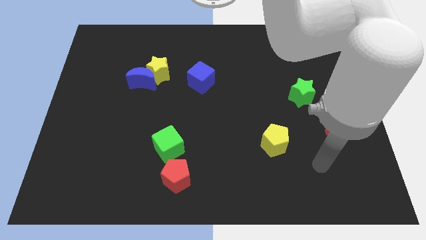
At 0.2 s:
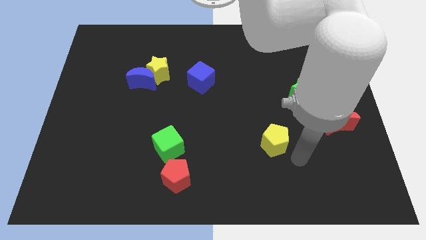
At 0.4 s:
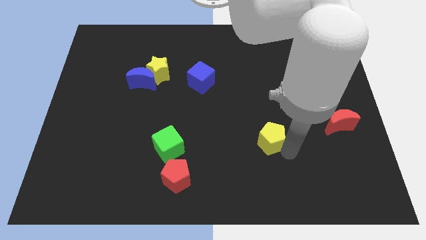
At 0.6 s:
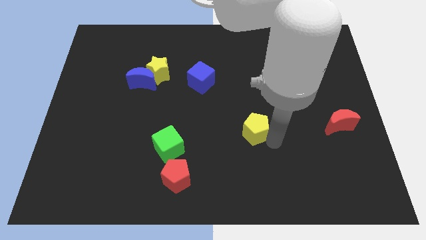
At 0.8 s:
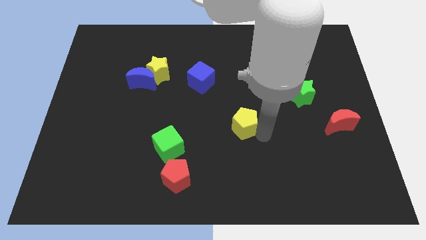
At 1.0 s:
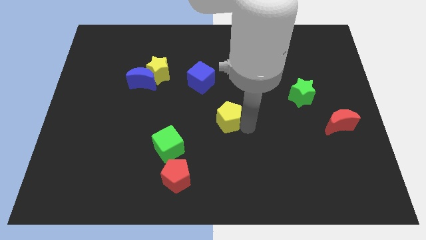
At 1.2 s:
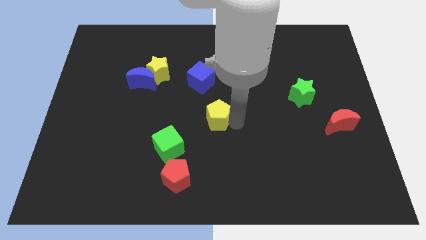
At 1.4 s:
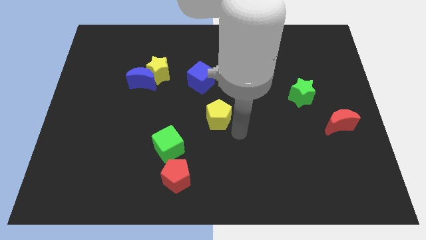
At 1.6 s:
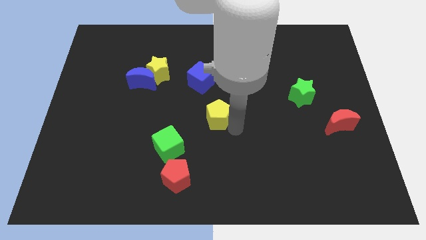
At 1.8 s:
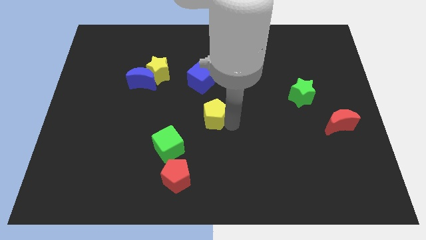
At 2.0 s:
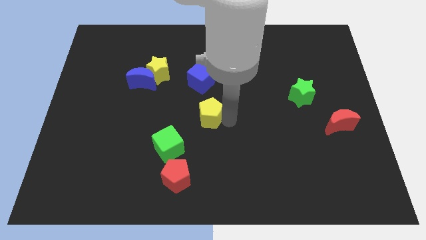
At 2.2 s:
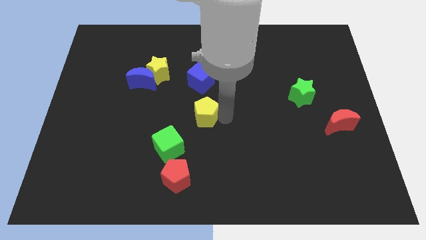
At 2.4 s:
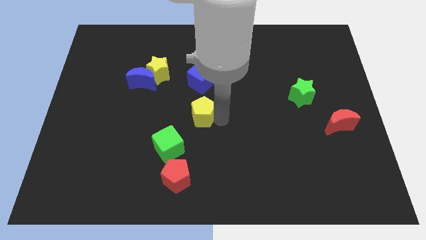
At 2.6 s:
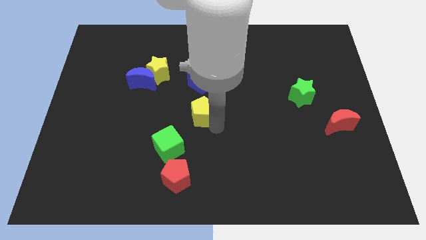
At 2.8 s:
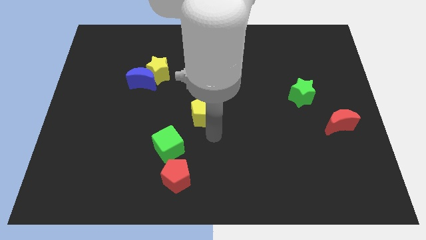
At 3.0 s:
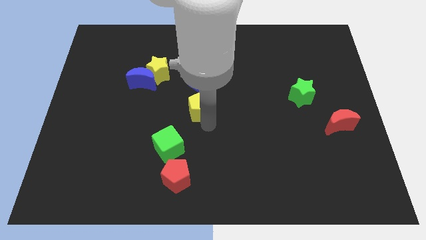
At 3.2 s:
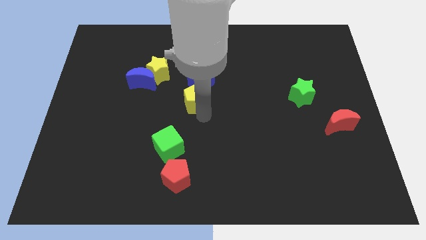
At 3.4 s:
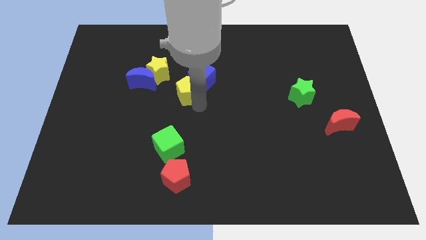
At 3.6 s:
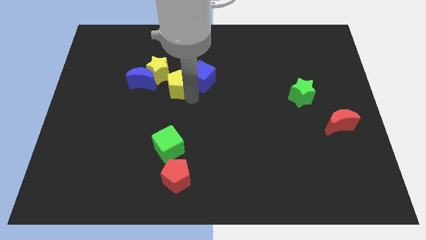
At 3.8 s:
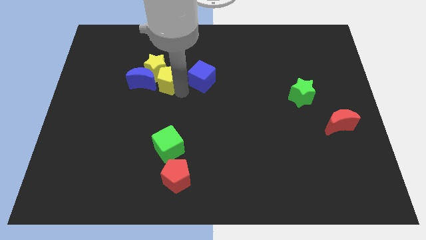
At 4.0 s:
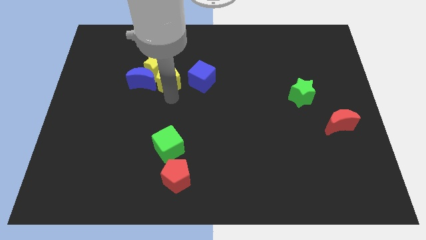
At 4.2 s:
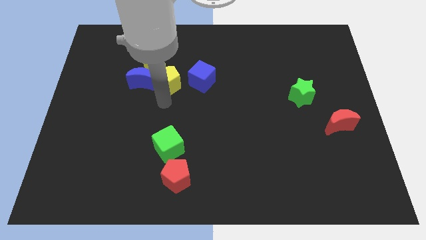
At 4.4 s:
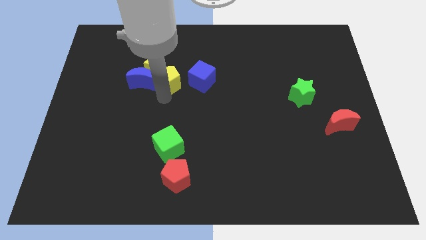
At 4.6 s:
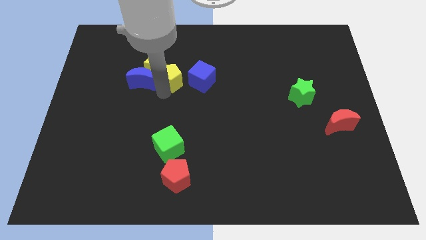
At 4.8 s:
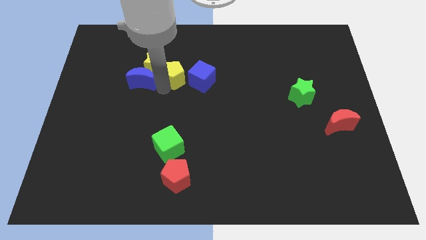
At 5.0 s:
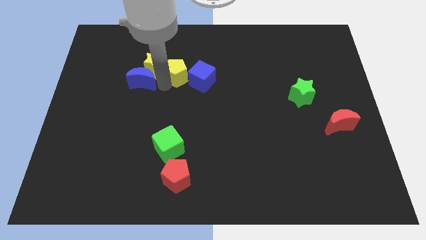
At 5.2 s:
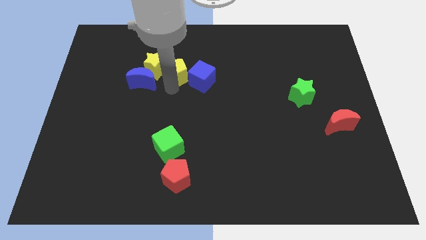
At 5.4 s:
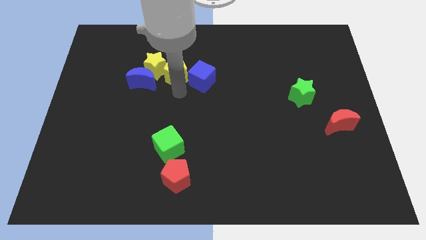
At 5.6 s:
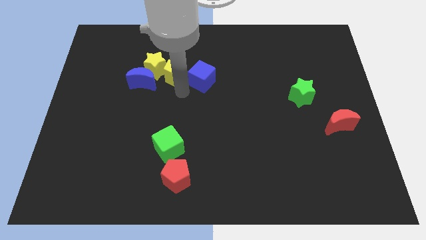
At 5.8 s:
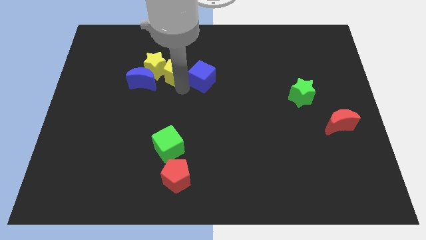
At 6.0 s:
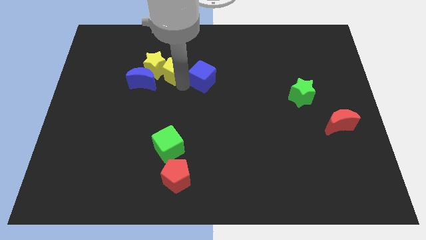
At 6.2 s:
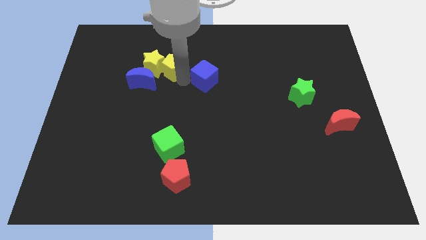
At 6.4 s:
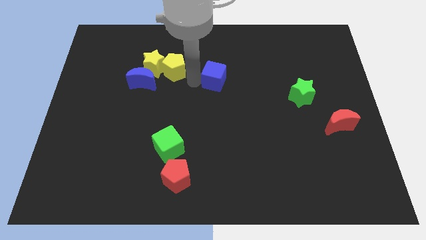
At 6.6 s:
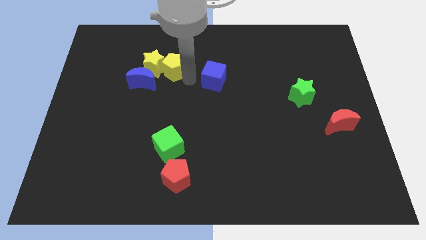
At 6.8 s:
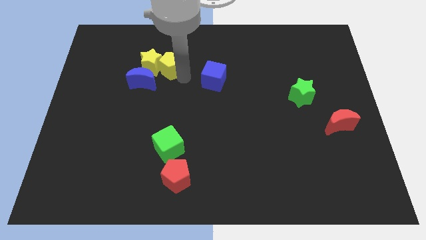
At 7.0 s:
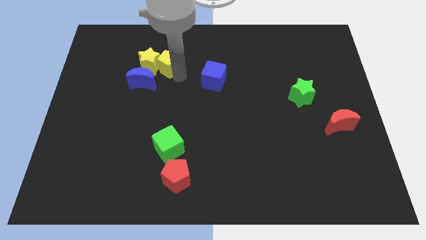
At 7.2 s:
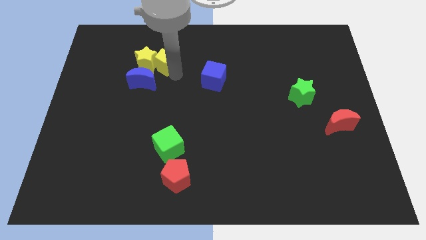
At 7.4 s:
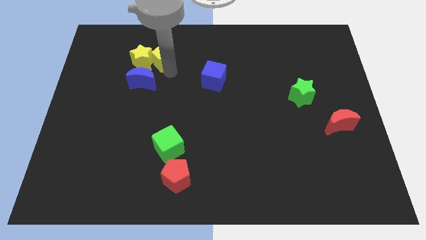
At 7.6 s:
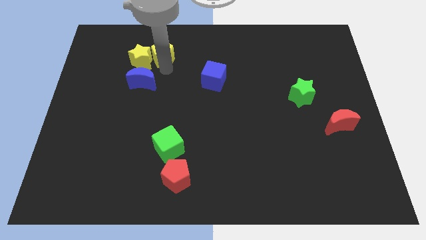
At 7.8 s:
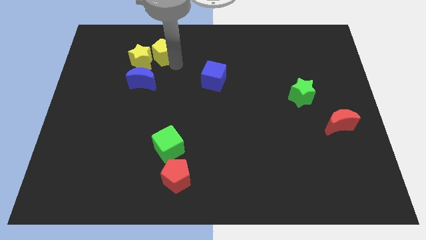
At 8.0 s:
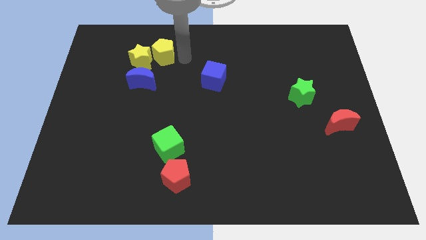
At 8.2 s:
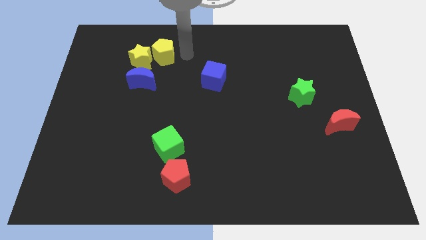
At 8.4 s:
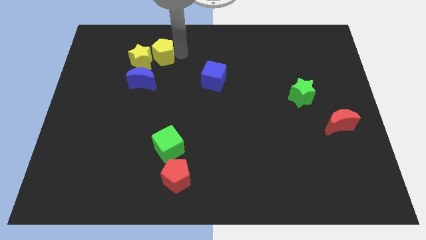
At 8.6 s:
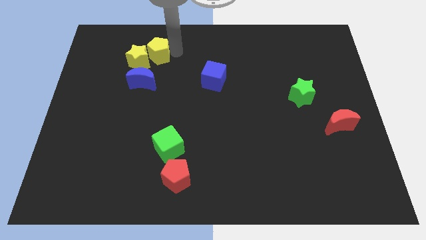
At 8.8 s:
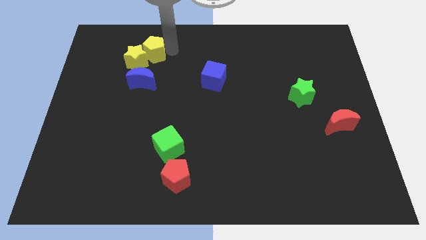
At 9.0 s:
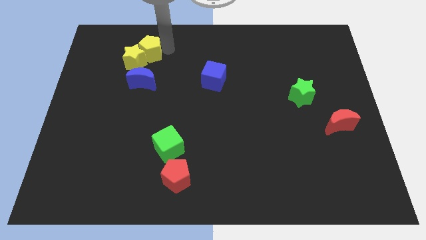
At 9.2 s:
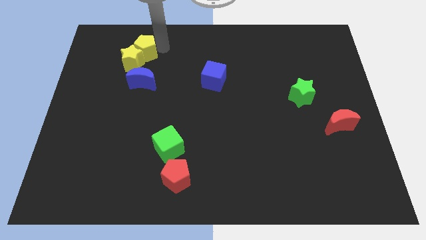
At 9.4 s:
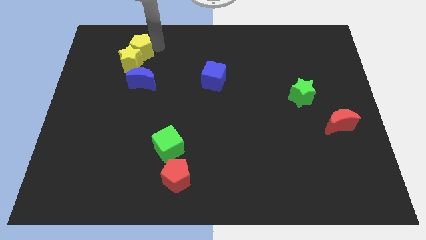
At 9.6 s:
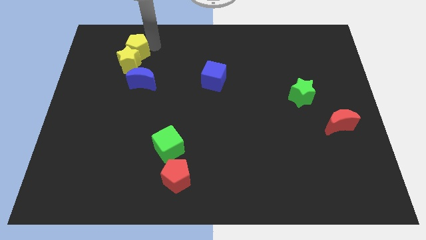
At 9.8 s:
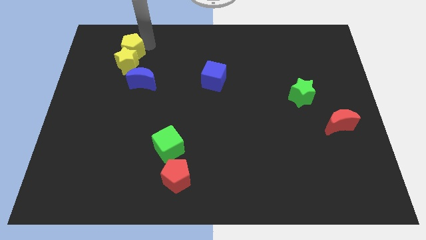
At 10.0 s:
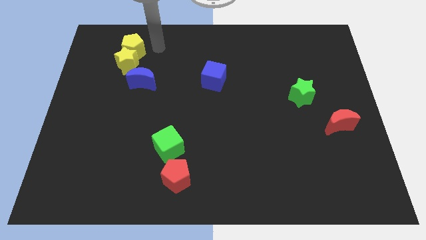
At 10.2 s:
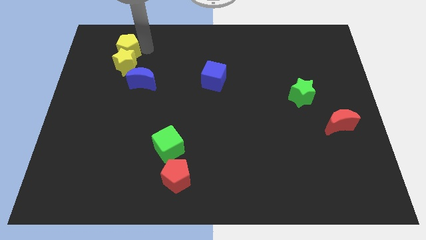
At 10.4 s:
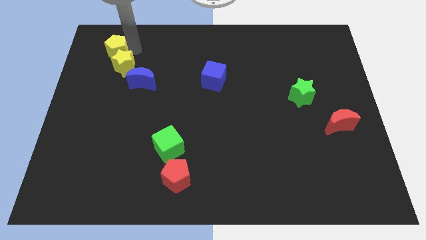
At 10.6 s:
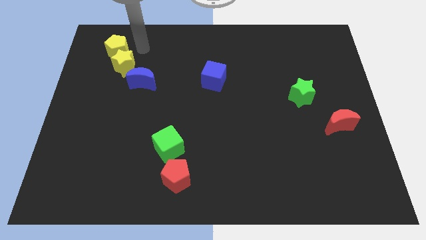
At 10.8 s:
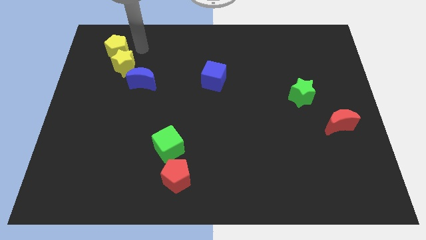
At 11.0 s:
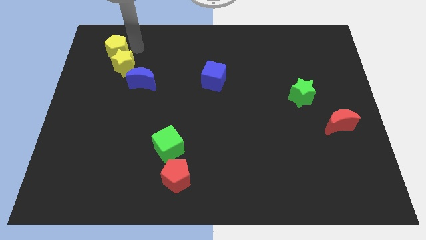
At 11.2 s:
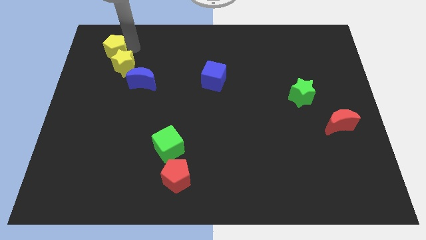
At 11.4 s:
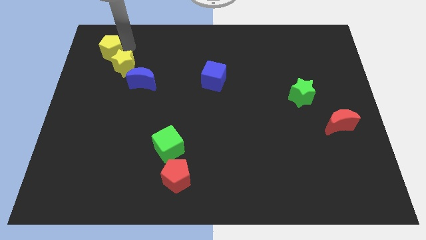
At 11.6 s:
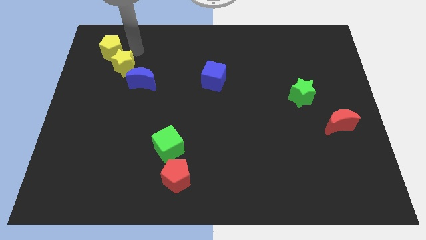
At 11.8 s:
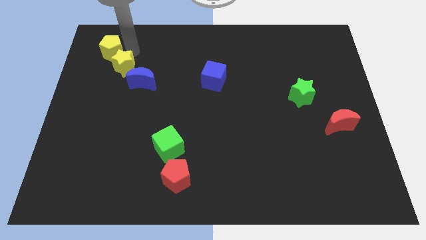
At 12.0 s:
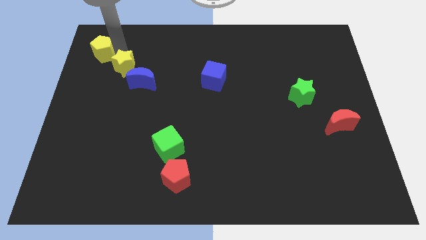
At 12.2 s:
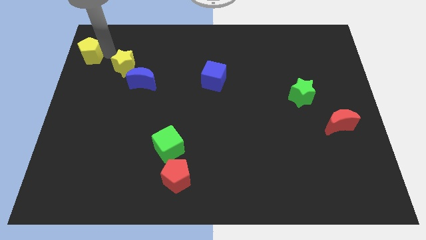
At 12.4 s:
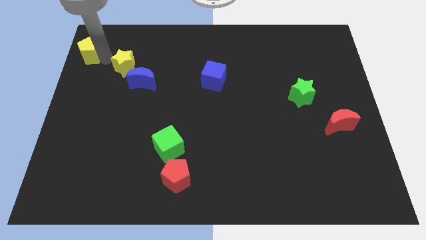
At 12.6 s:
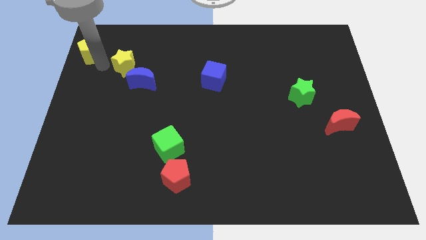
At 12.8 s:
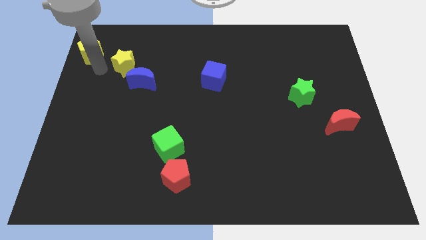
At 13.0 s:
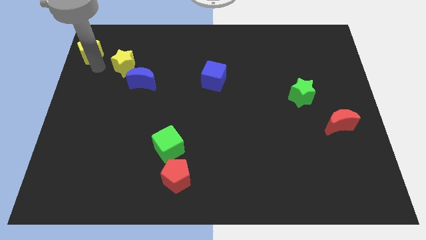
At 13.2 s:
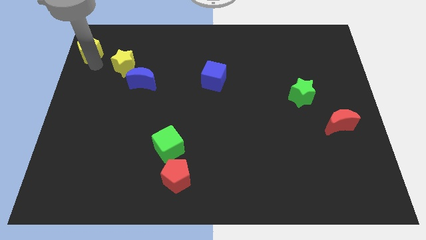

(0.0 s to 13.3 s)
slide the yellow pentagon to the top left corner
